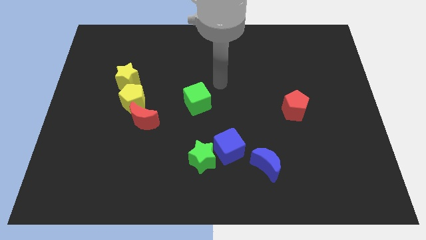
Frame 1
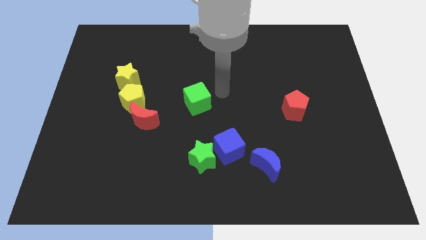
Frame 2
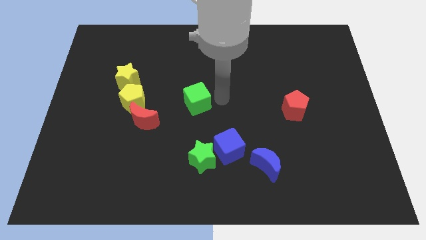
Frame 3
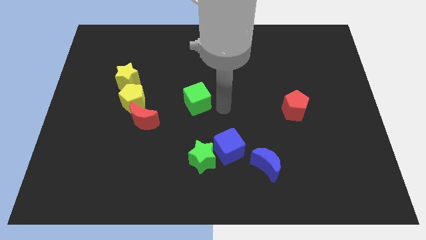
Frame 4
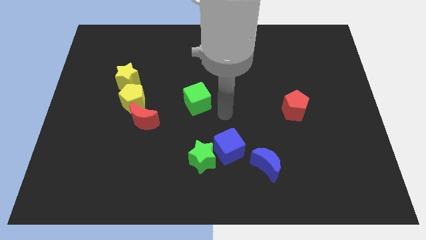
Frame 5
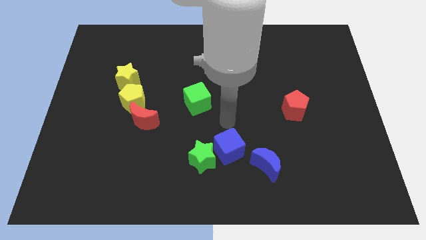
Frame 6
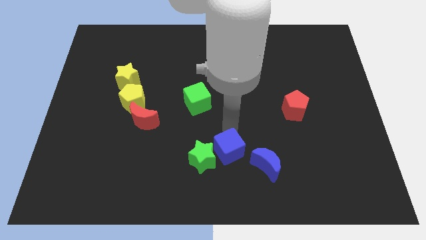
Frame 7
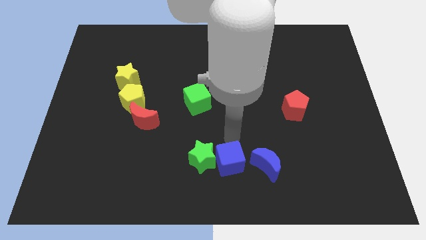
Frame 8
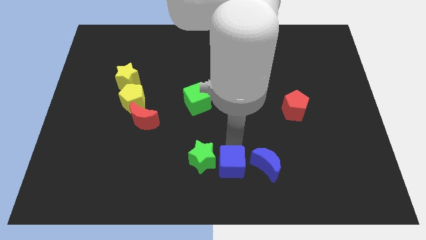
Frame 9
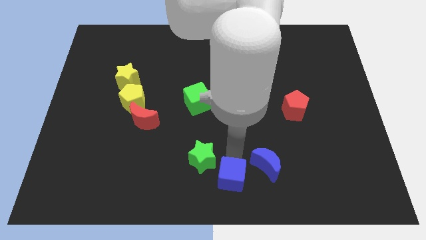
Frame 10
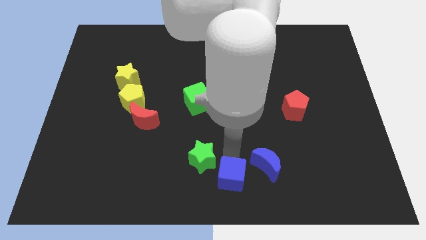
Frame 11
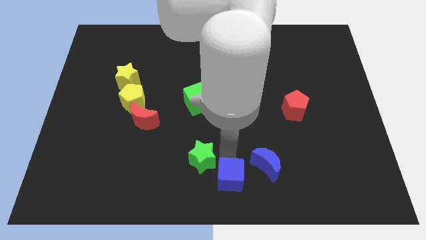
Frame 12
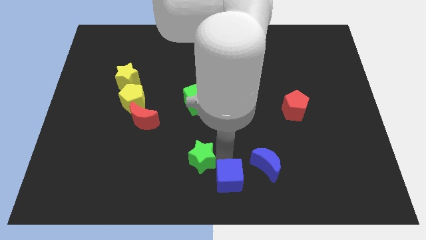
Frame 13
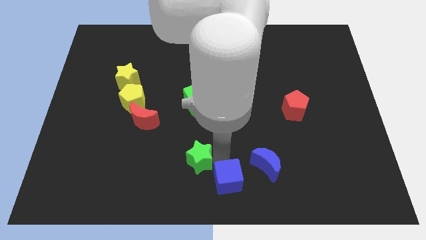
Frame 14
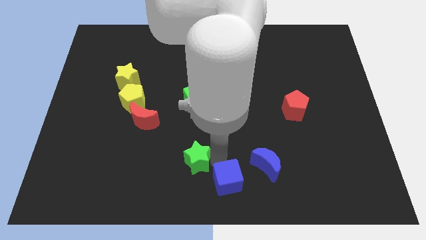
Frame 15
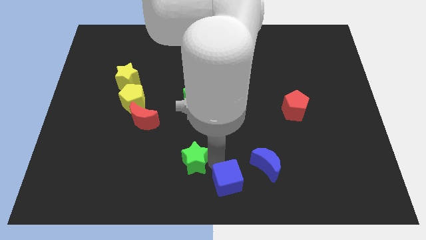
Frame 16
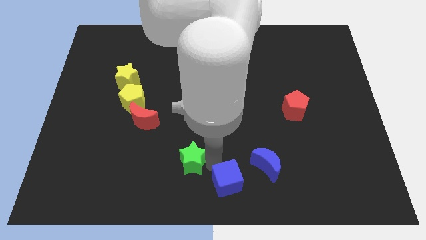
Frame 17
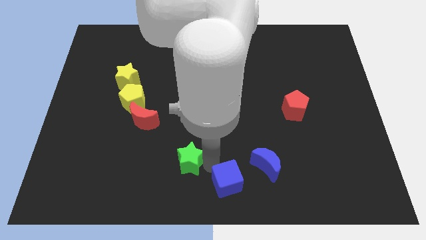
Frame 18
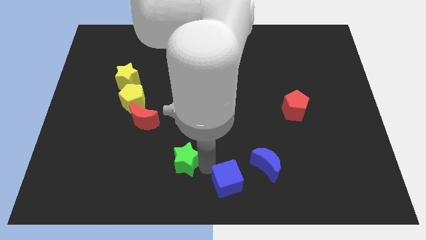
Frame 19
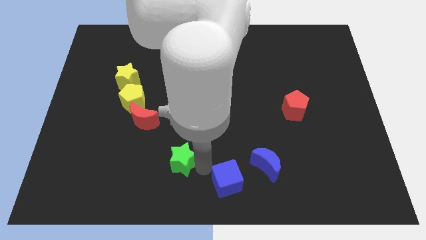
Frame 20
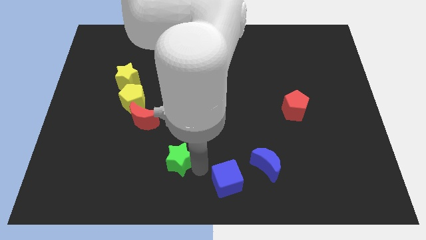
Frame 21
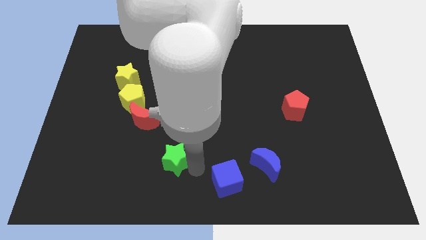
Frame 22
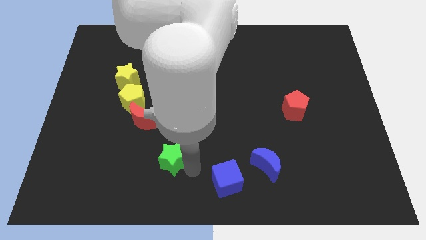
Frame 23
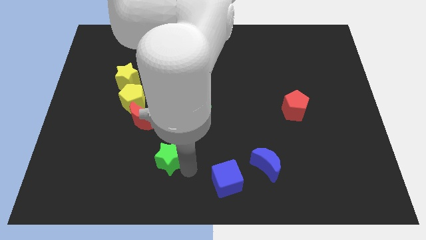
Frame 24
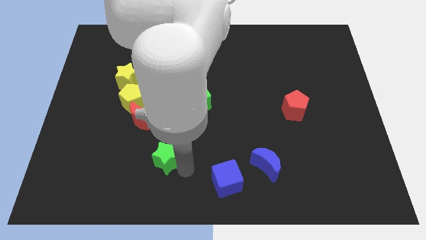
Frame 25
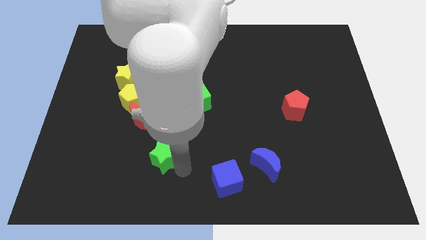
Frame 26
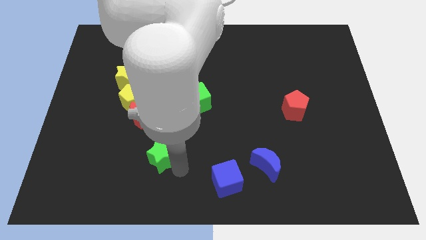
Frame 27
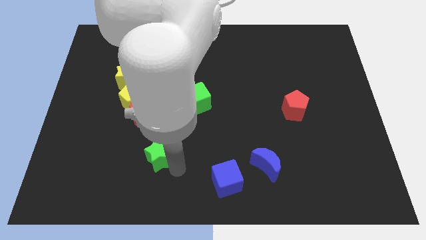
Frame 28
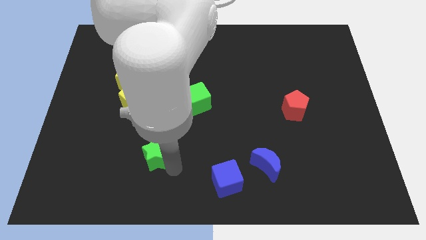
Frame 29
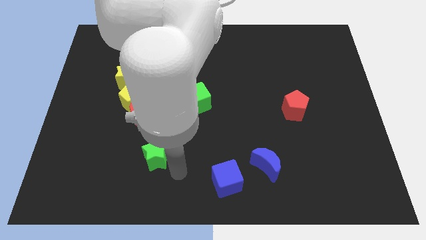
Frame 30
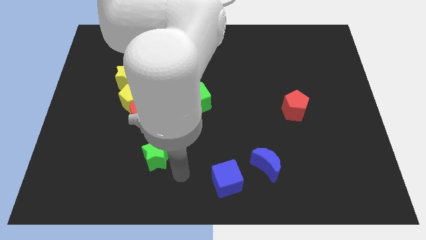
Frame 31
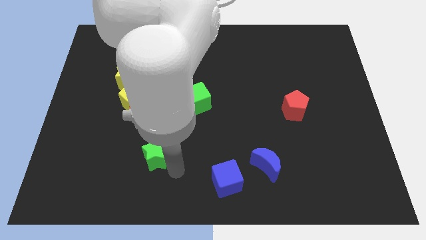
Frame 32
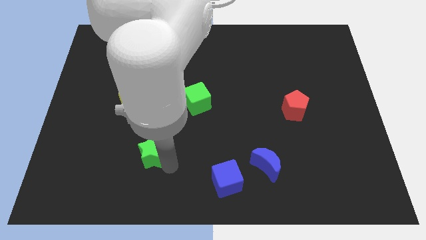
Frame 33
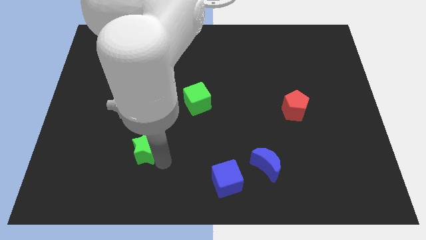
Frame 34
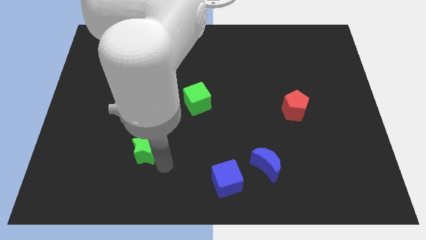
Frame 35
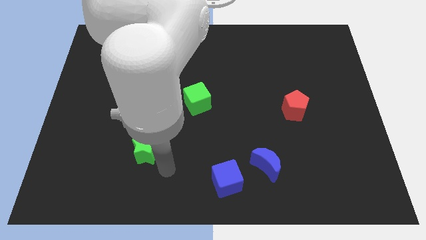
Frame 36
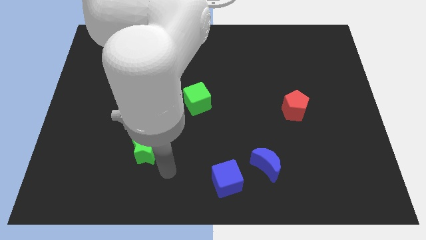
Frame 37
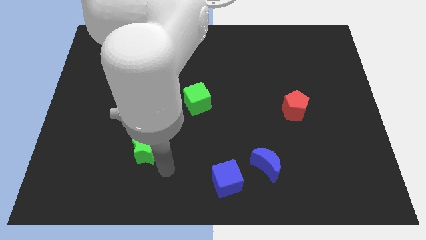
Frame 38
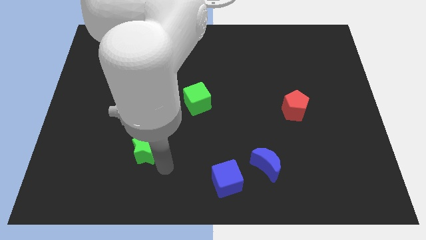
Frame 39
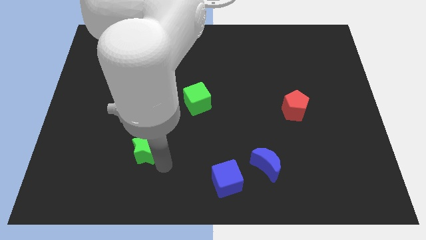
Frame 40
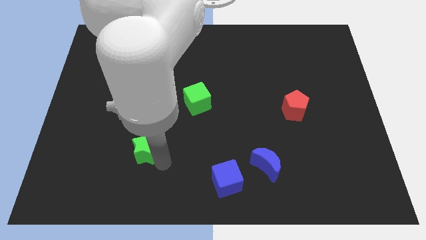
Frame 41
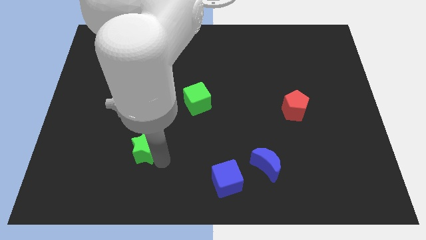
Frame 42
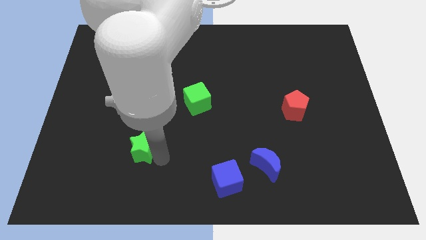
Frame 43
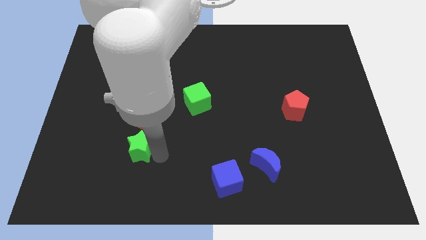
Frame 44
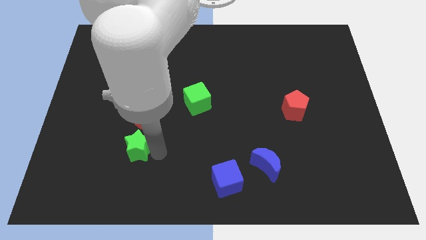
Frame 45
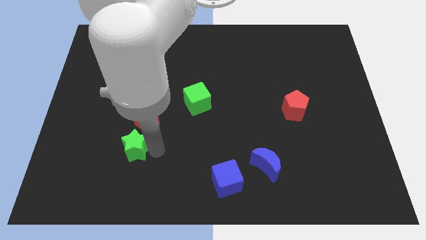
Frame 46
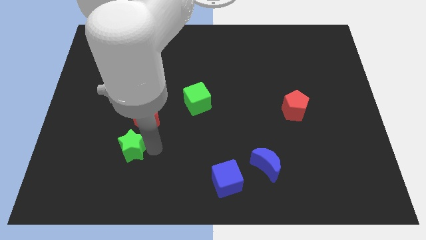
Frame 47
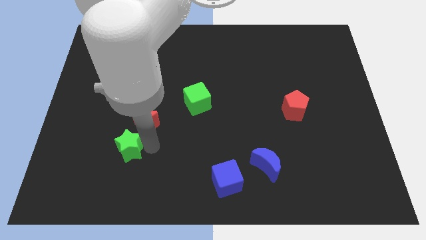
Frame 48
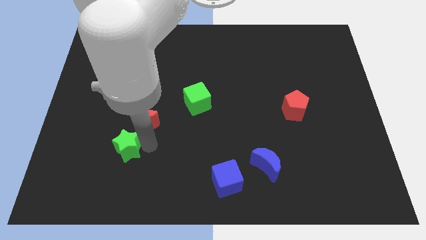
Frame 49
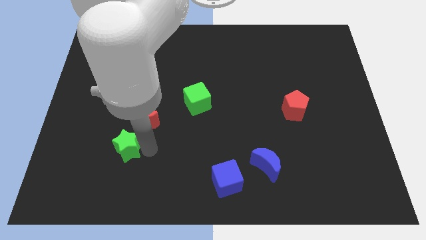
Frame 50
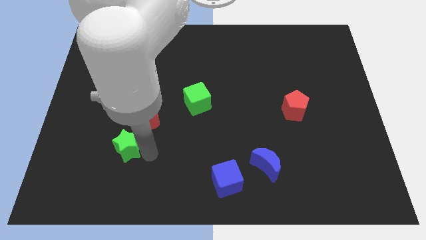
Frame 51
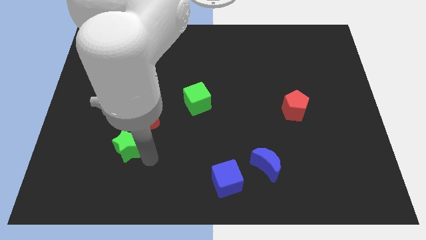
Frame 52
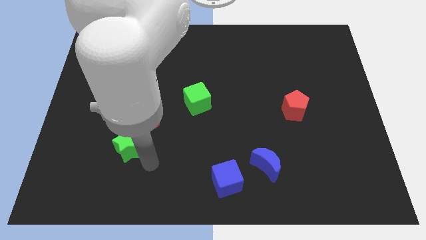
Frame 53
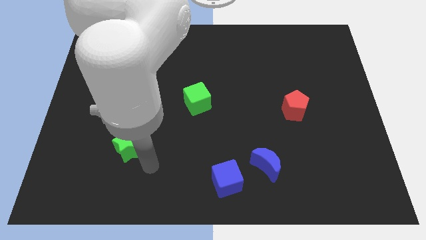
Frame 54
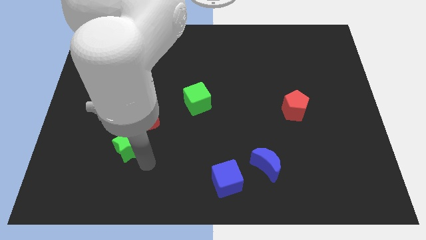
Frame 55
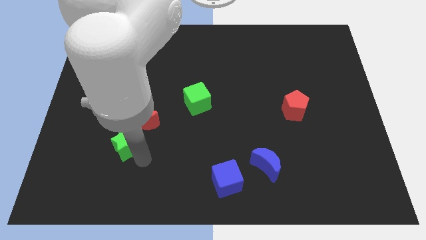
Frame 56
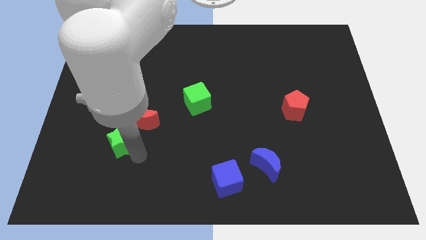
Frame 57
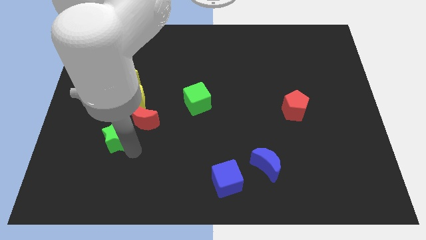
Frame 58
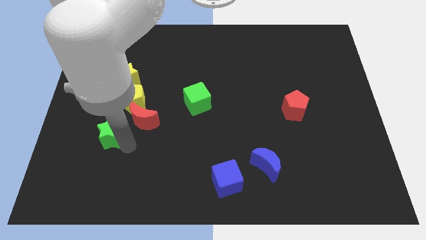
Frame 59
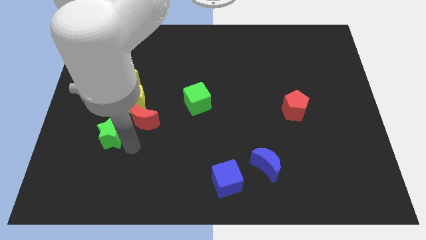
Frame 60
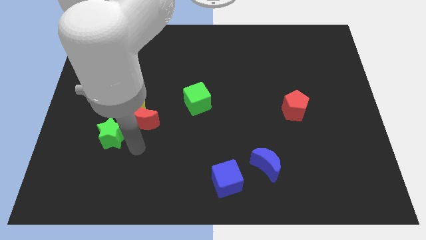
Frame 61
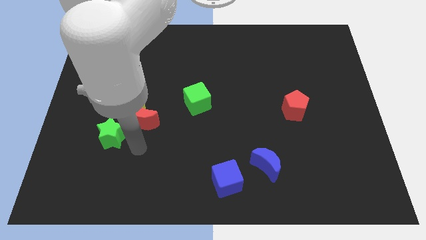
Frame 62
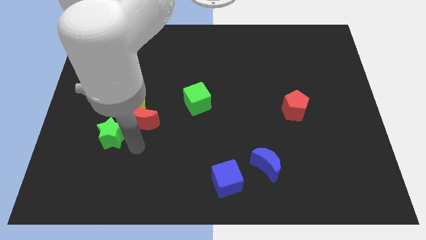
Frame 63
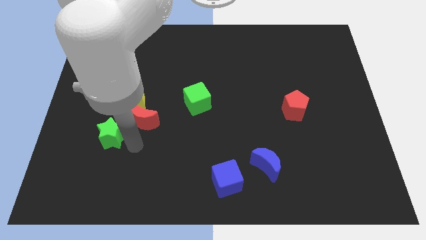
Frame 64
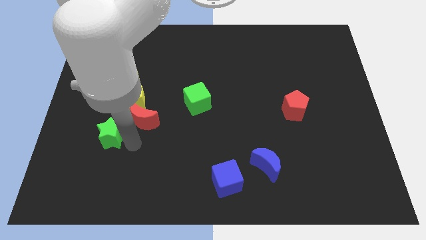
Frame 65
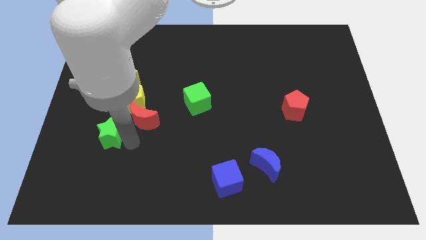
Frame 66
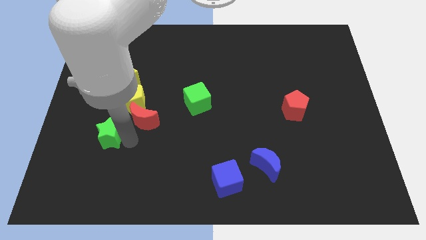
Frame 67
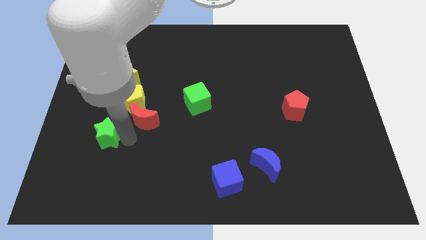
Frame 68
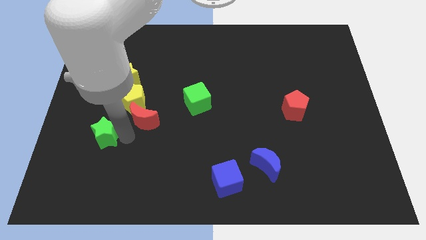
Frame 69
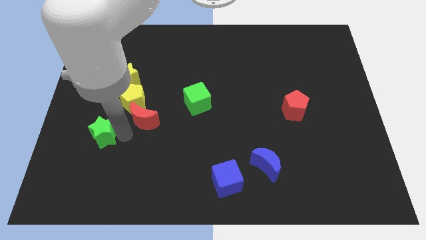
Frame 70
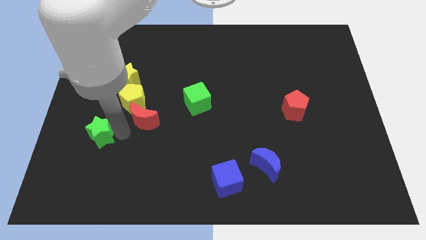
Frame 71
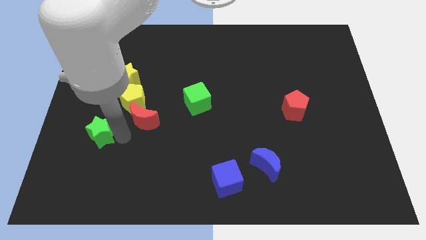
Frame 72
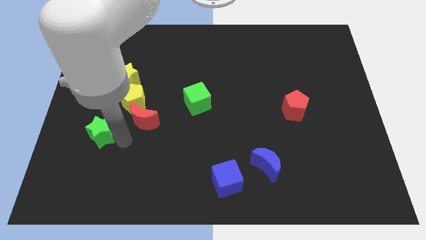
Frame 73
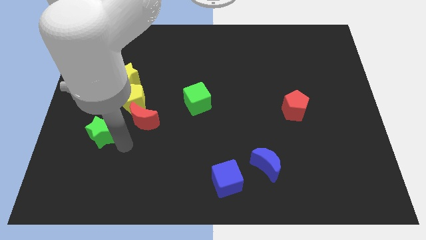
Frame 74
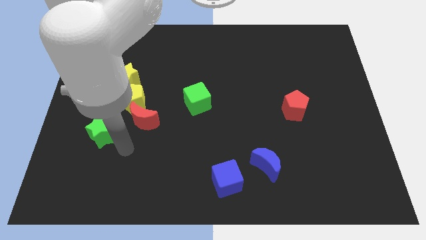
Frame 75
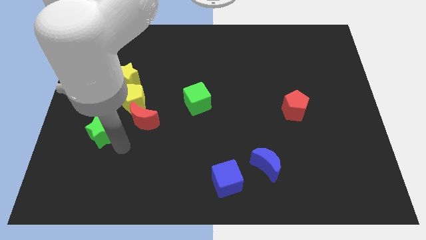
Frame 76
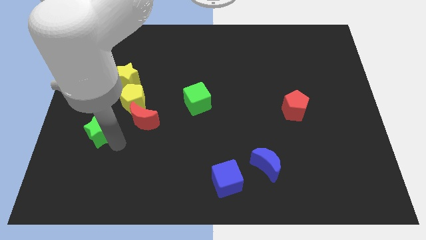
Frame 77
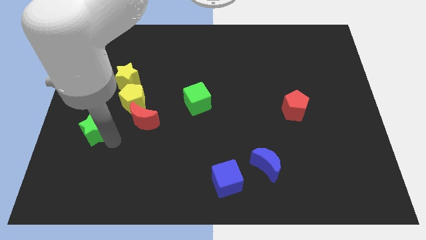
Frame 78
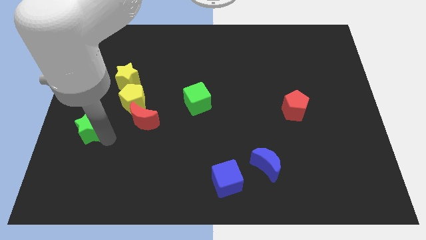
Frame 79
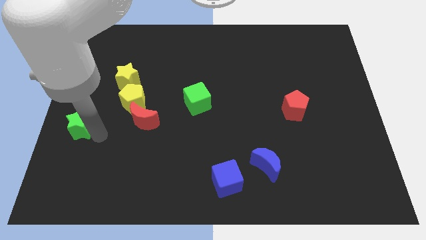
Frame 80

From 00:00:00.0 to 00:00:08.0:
slide the green star to the left side
